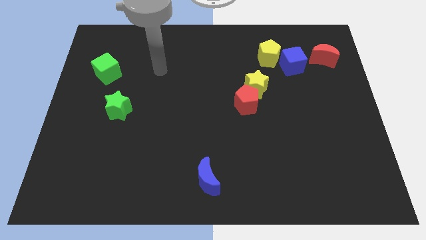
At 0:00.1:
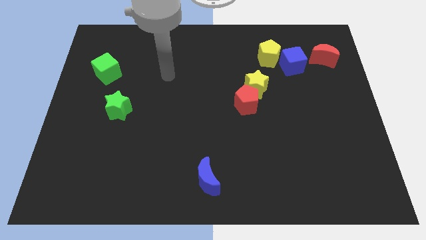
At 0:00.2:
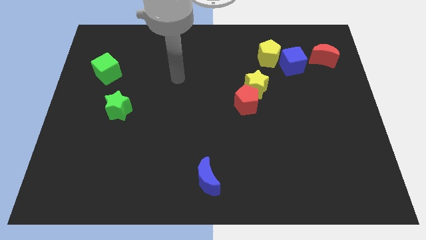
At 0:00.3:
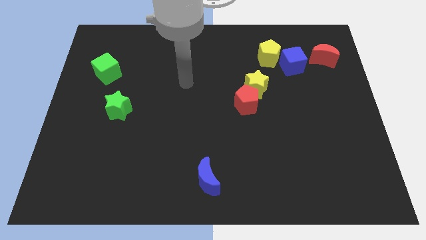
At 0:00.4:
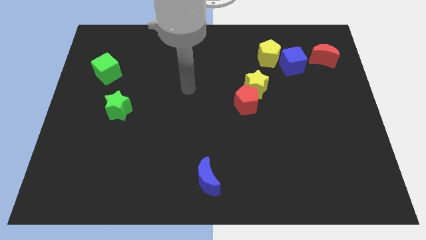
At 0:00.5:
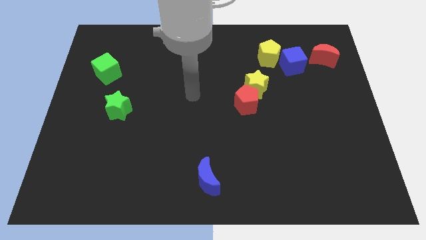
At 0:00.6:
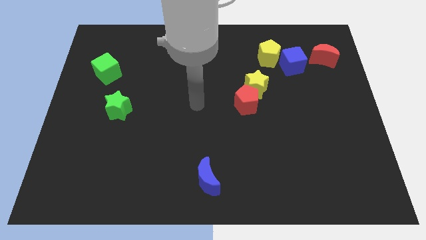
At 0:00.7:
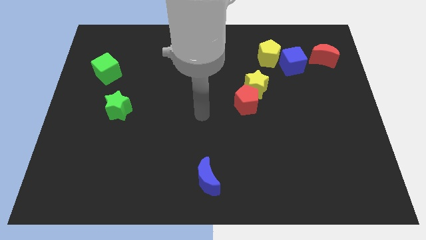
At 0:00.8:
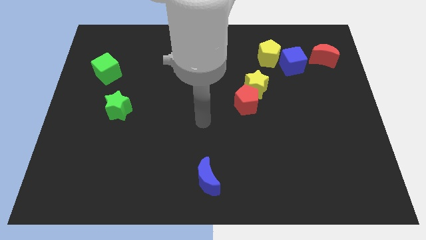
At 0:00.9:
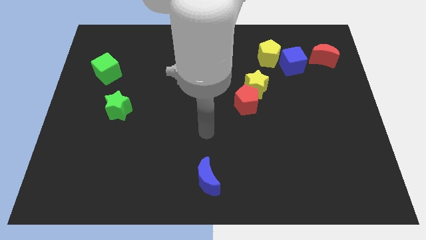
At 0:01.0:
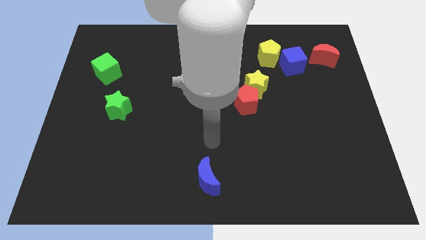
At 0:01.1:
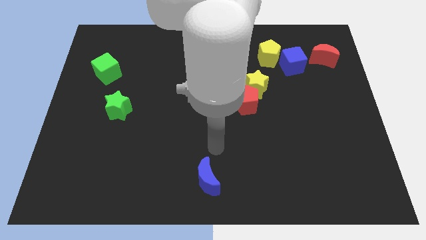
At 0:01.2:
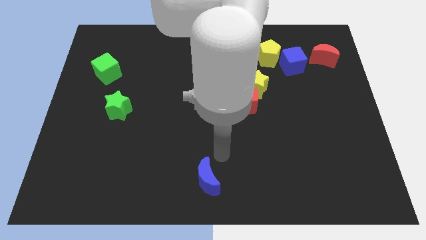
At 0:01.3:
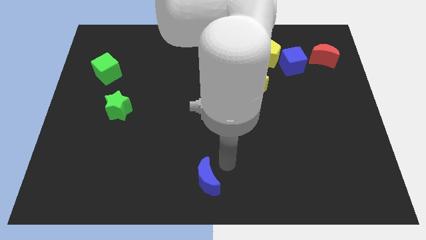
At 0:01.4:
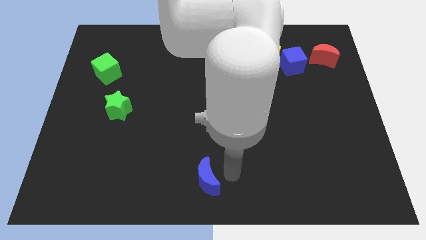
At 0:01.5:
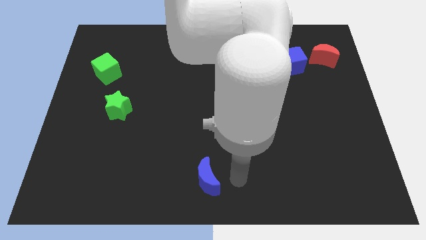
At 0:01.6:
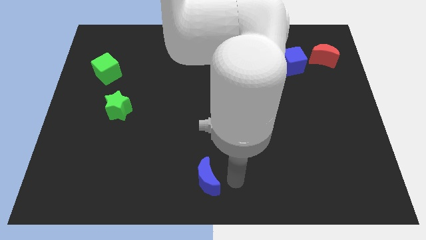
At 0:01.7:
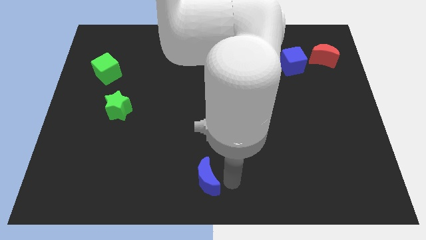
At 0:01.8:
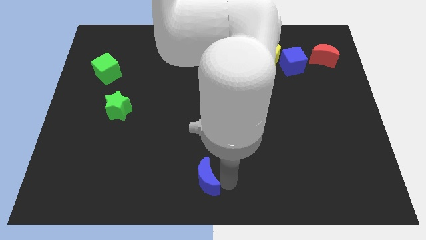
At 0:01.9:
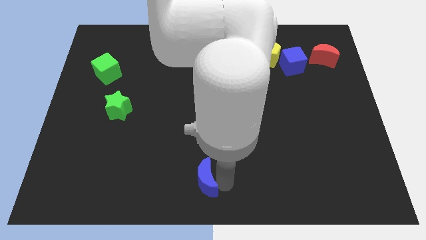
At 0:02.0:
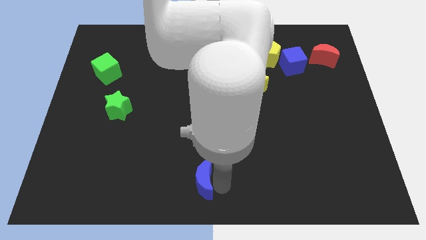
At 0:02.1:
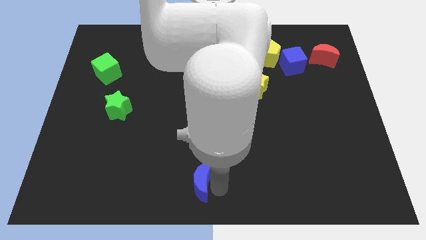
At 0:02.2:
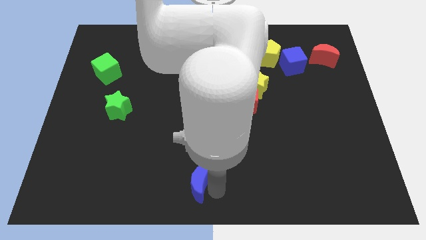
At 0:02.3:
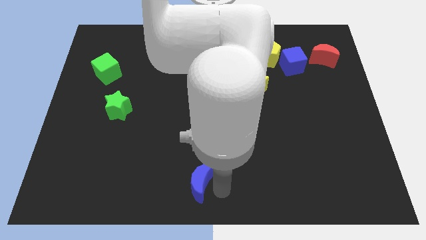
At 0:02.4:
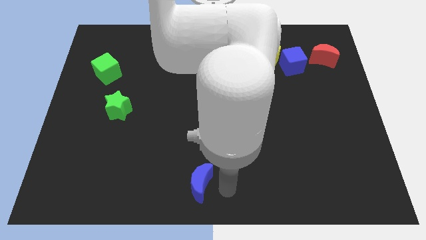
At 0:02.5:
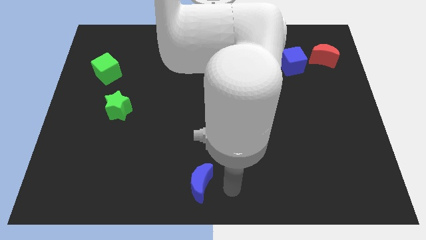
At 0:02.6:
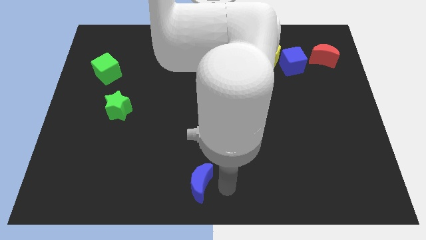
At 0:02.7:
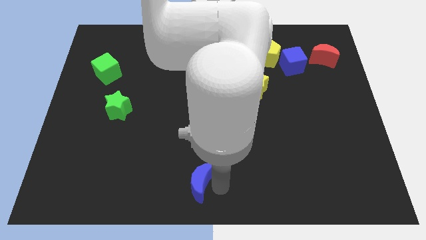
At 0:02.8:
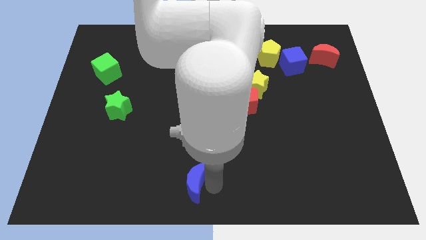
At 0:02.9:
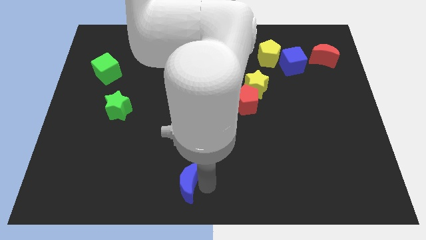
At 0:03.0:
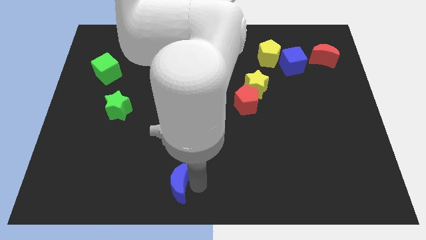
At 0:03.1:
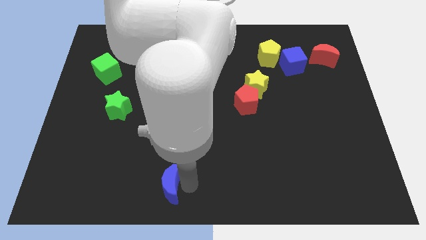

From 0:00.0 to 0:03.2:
push the blue moon to the left slightly

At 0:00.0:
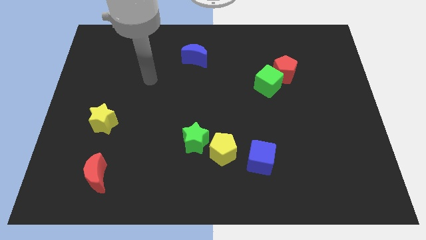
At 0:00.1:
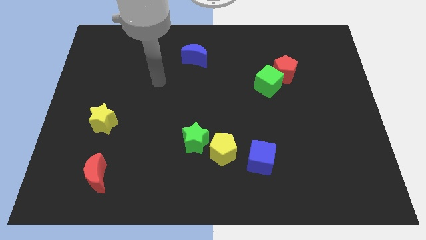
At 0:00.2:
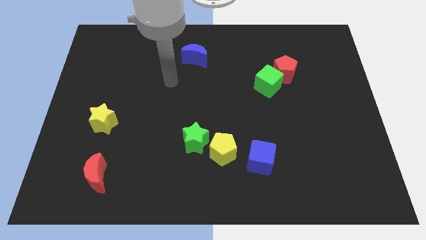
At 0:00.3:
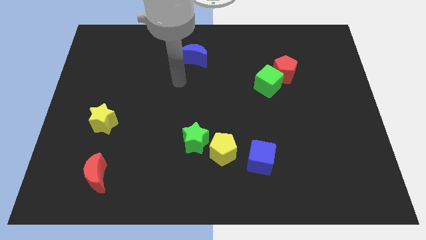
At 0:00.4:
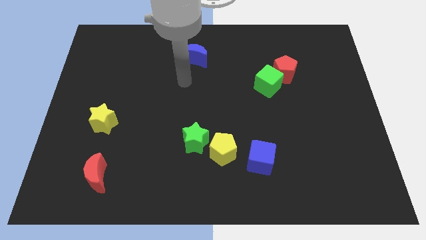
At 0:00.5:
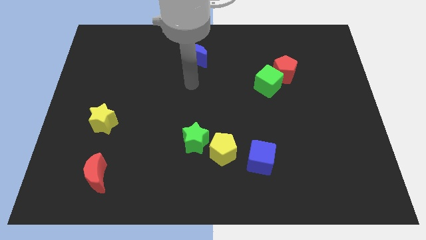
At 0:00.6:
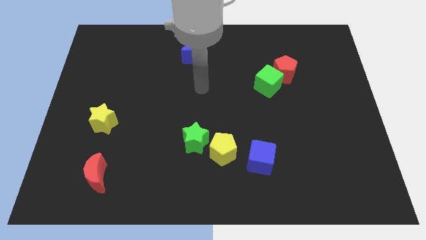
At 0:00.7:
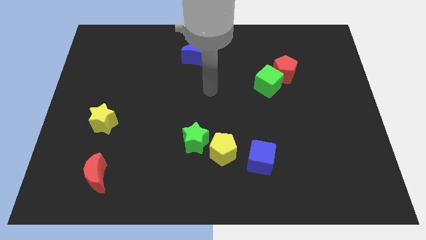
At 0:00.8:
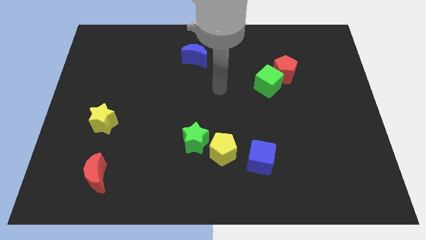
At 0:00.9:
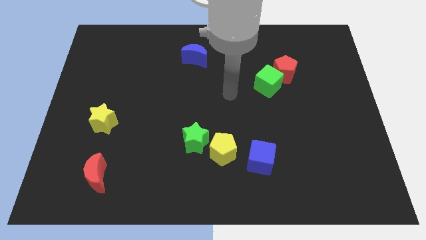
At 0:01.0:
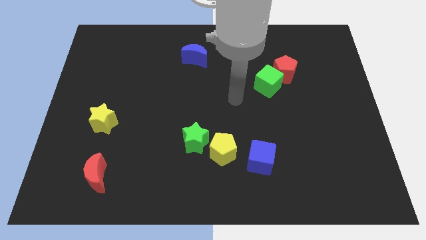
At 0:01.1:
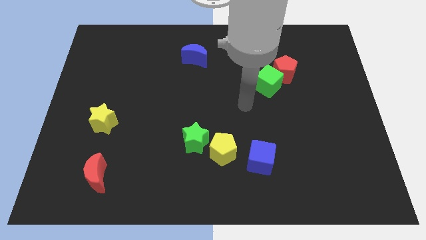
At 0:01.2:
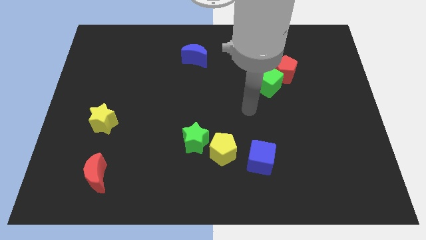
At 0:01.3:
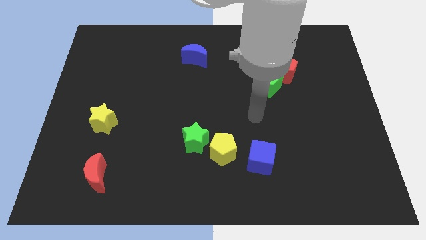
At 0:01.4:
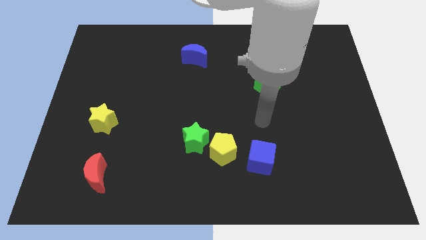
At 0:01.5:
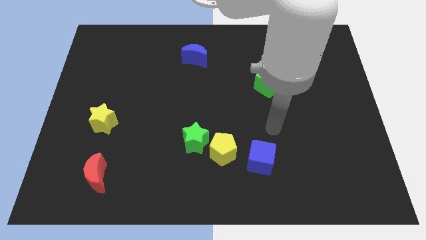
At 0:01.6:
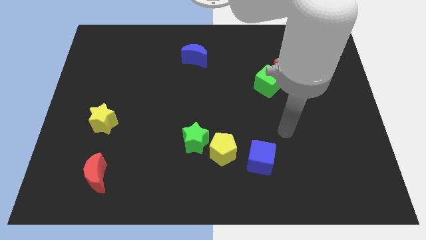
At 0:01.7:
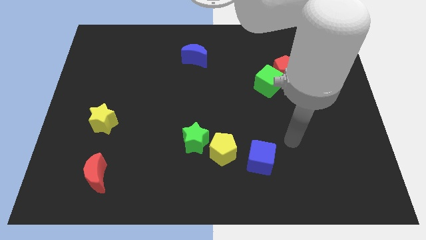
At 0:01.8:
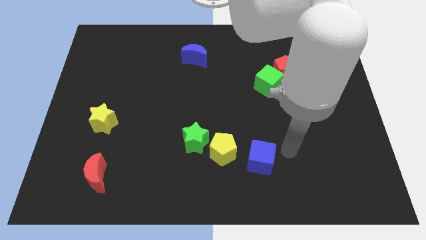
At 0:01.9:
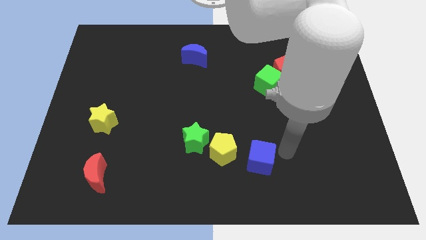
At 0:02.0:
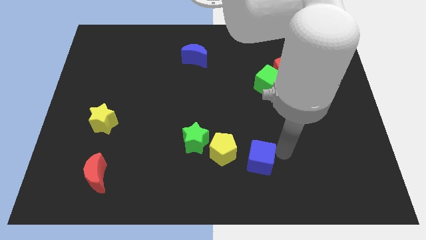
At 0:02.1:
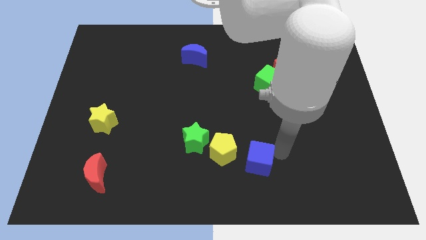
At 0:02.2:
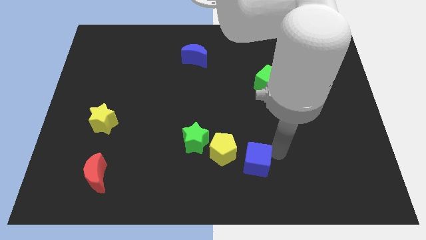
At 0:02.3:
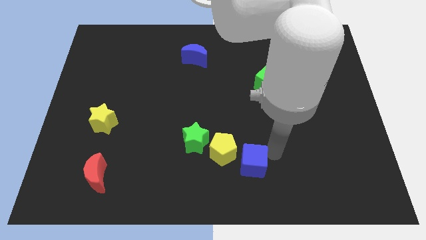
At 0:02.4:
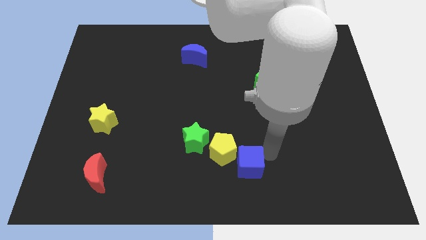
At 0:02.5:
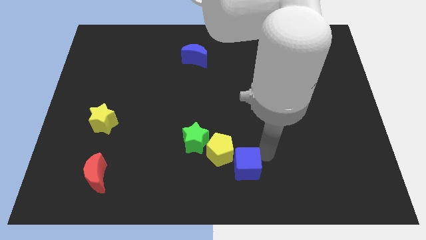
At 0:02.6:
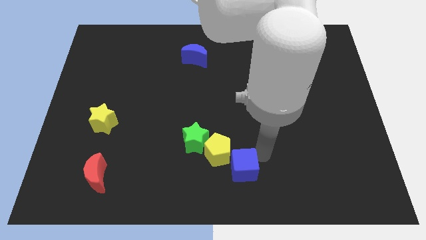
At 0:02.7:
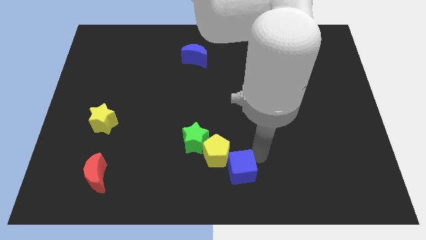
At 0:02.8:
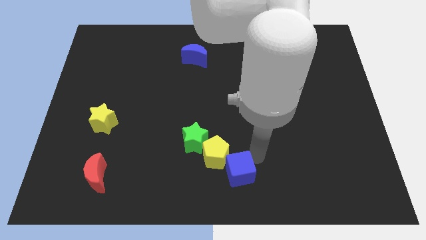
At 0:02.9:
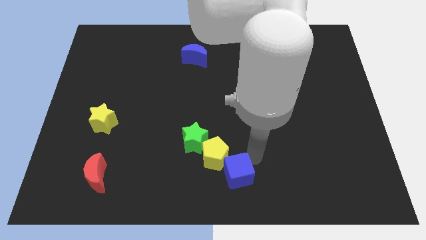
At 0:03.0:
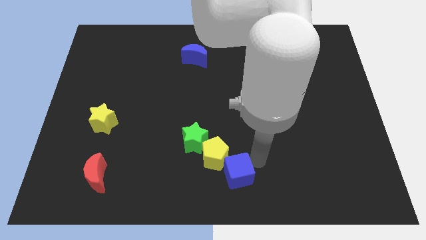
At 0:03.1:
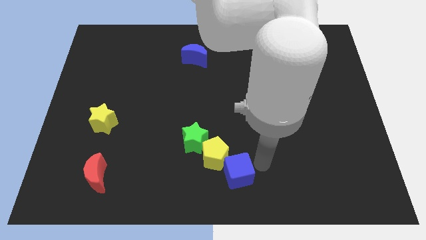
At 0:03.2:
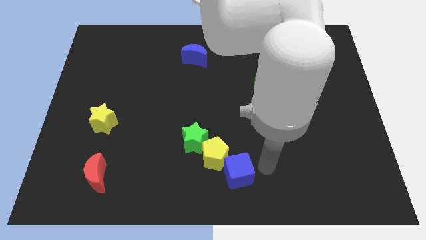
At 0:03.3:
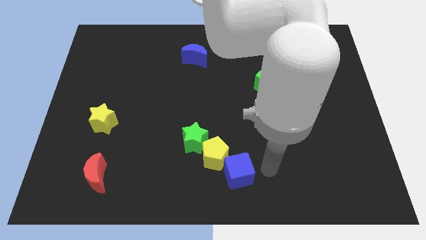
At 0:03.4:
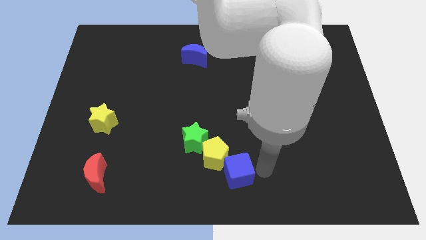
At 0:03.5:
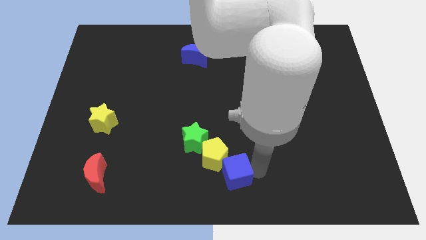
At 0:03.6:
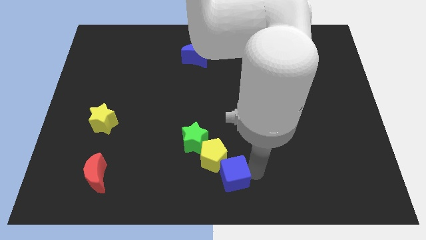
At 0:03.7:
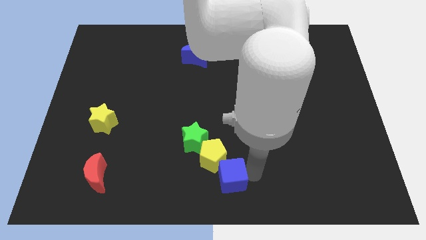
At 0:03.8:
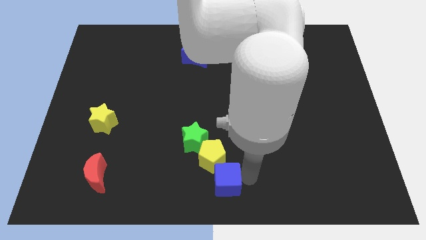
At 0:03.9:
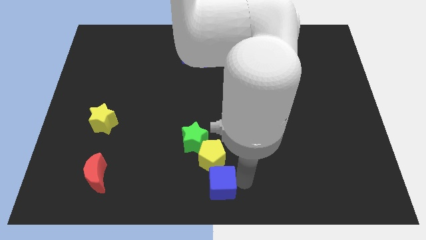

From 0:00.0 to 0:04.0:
slightly slide the blue cube to the left

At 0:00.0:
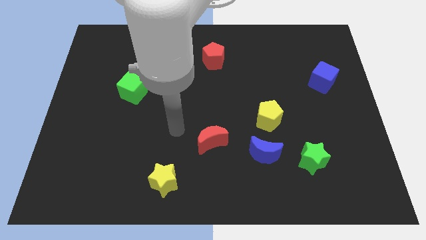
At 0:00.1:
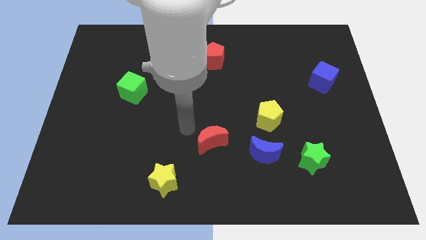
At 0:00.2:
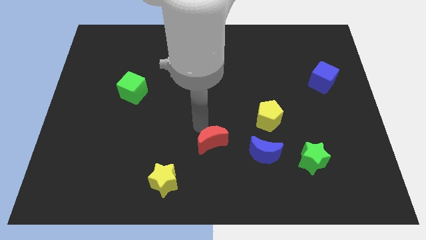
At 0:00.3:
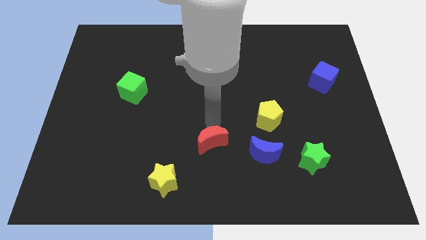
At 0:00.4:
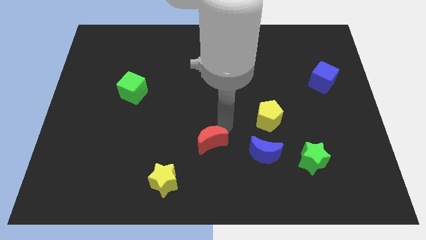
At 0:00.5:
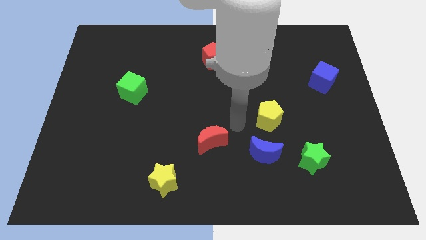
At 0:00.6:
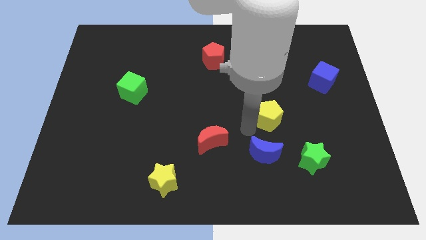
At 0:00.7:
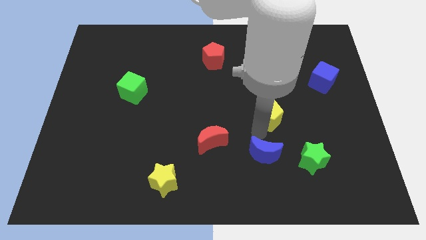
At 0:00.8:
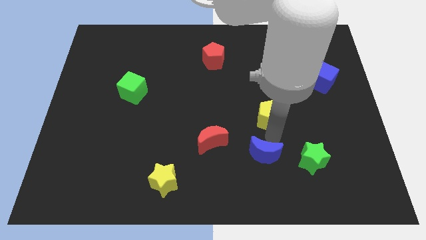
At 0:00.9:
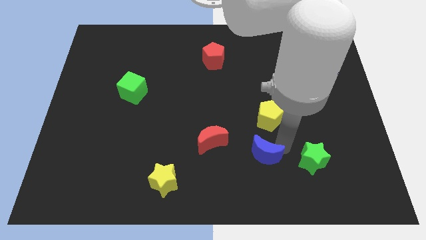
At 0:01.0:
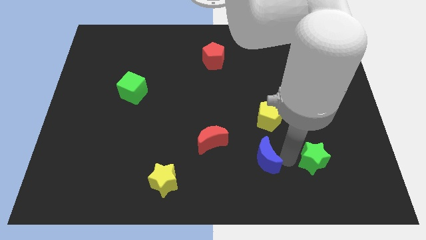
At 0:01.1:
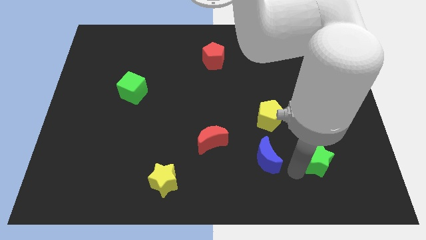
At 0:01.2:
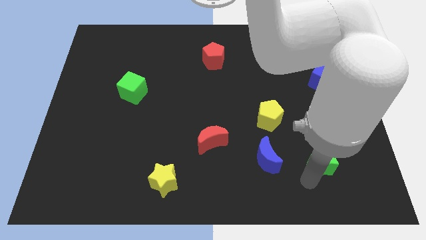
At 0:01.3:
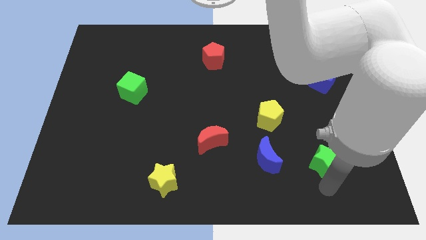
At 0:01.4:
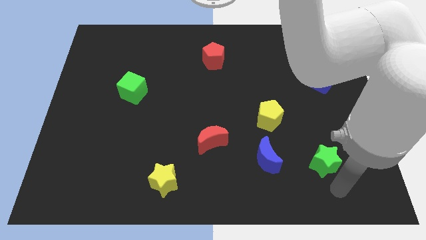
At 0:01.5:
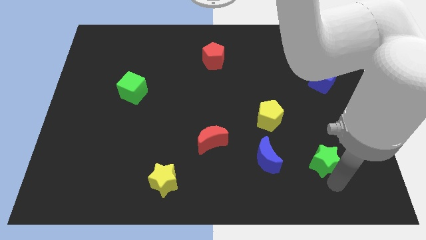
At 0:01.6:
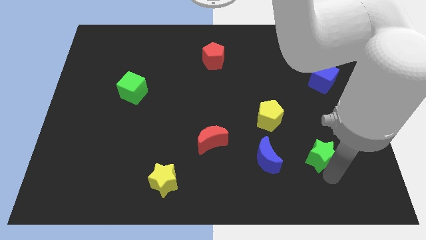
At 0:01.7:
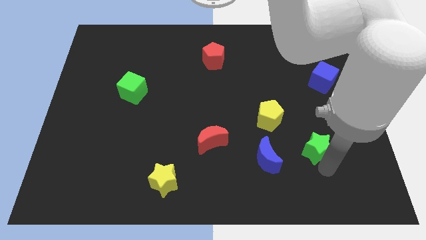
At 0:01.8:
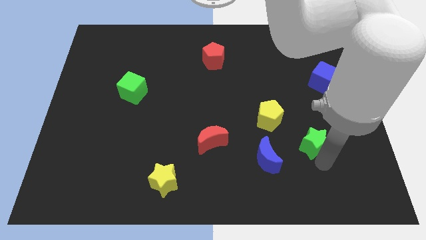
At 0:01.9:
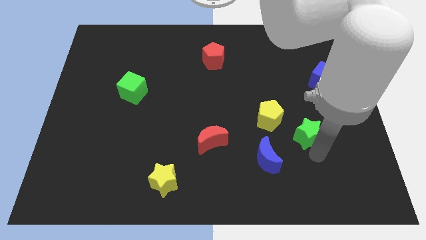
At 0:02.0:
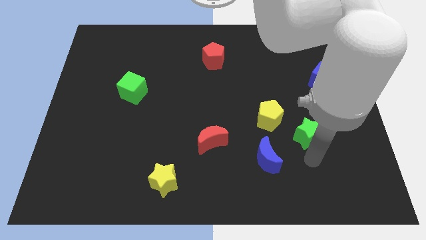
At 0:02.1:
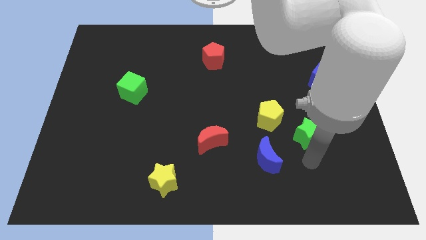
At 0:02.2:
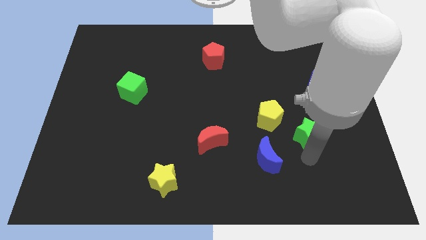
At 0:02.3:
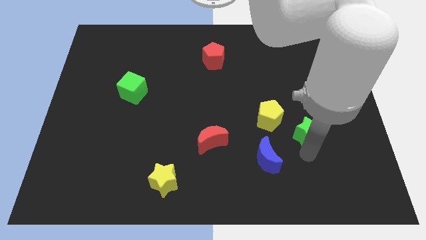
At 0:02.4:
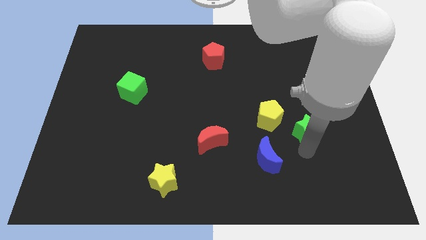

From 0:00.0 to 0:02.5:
slightly push the green star up
